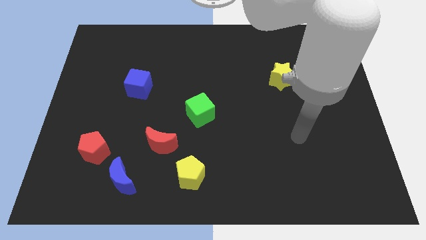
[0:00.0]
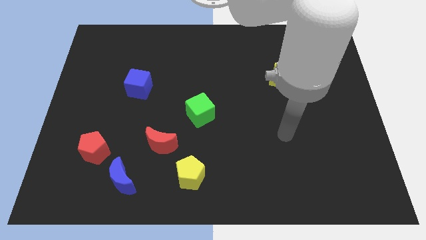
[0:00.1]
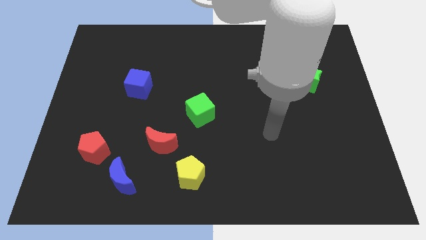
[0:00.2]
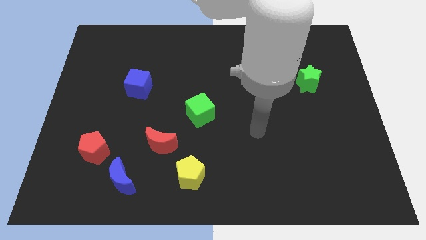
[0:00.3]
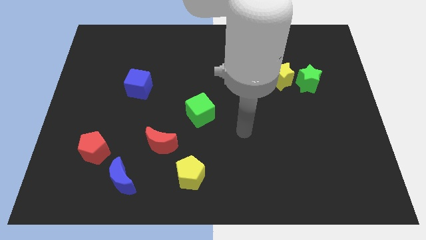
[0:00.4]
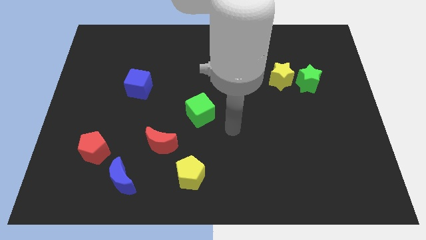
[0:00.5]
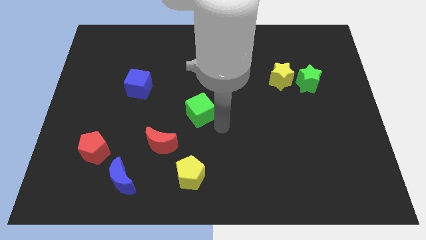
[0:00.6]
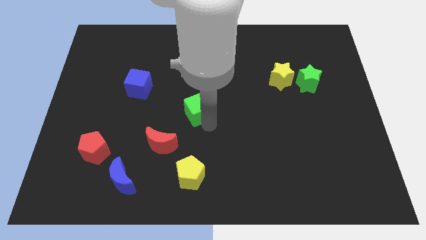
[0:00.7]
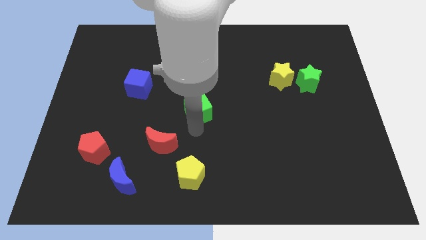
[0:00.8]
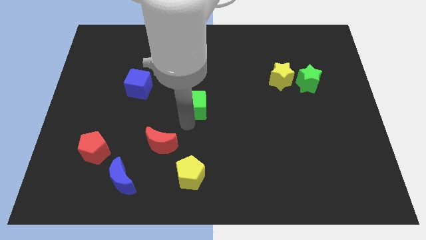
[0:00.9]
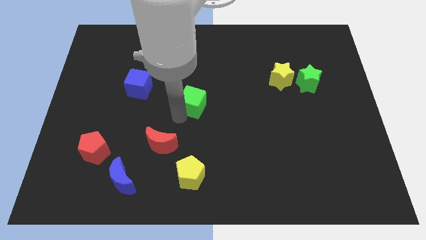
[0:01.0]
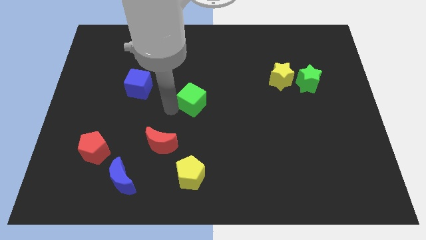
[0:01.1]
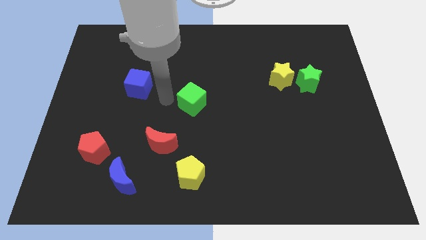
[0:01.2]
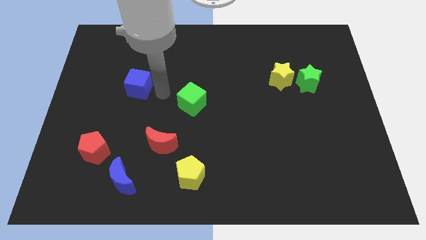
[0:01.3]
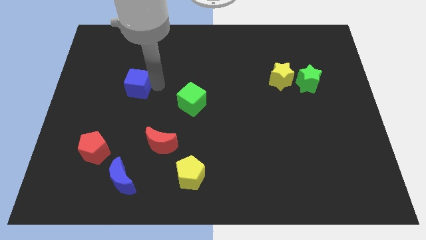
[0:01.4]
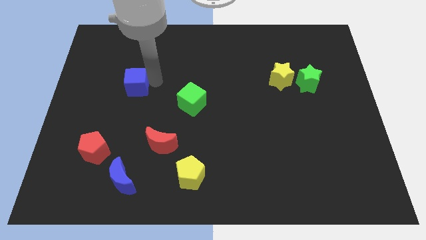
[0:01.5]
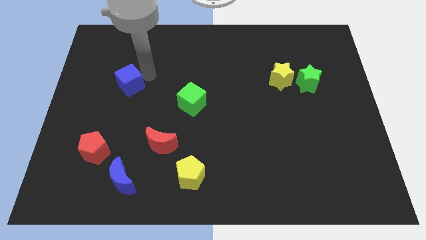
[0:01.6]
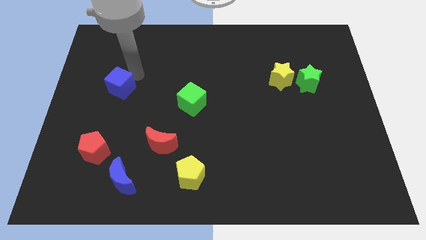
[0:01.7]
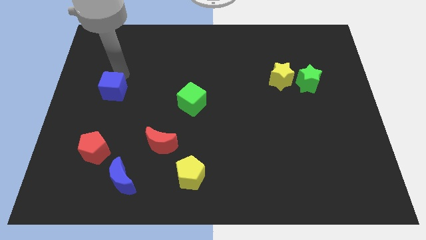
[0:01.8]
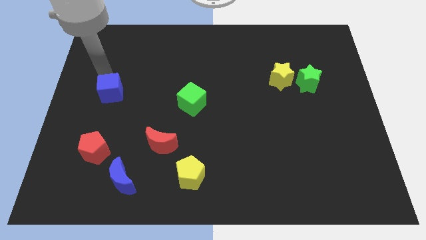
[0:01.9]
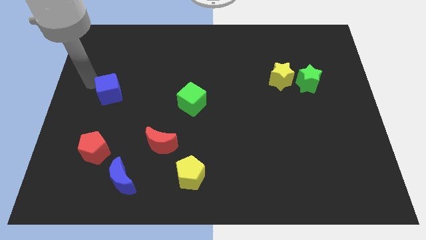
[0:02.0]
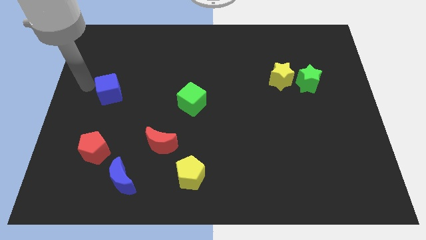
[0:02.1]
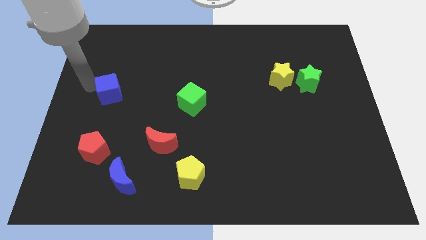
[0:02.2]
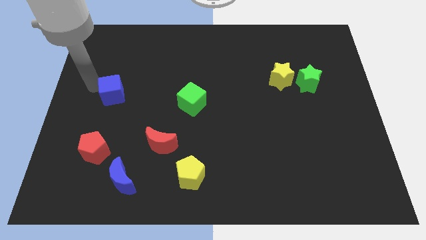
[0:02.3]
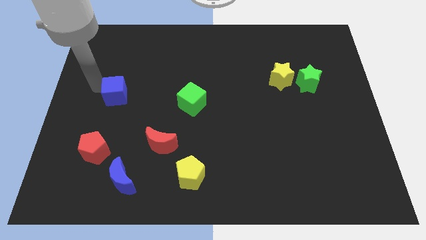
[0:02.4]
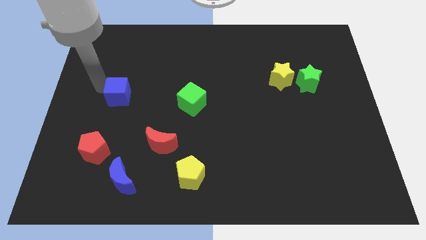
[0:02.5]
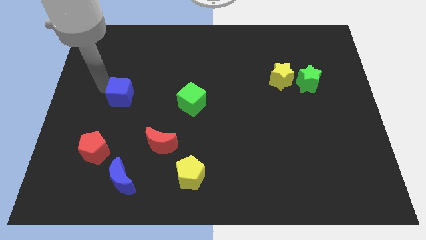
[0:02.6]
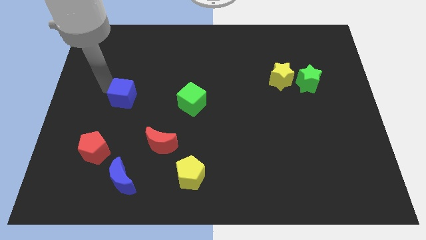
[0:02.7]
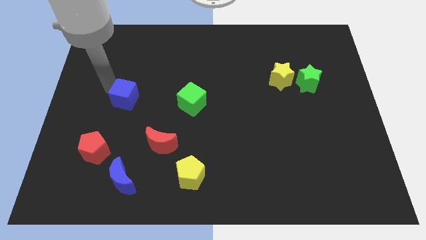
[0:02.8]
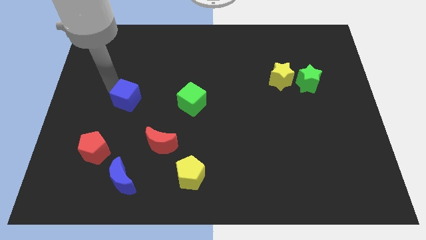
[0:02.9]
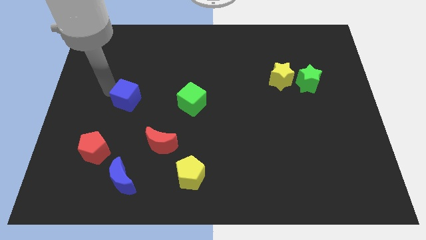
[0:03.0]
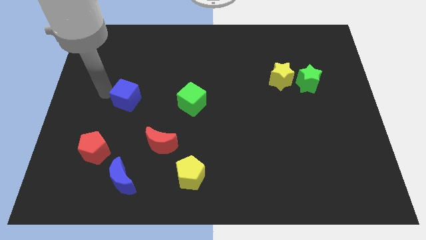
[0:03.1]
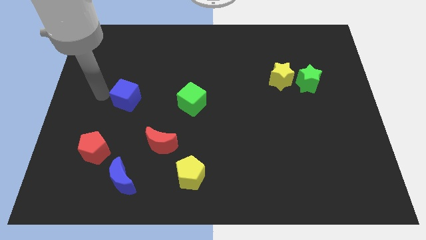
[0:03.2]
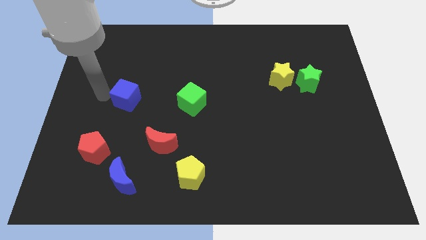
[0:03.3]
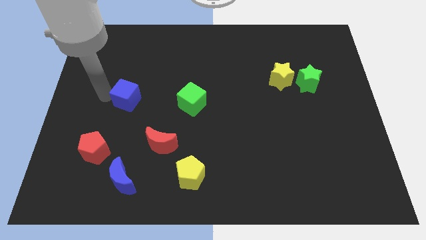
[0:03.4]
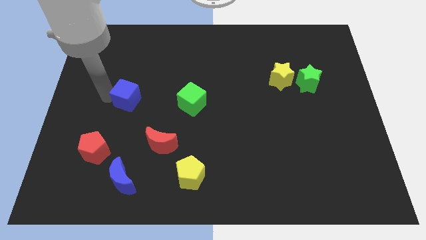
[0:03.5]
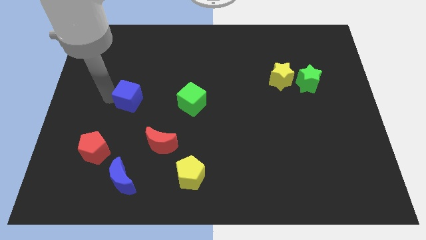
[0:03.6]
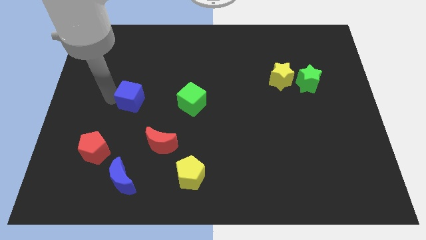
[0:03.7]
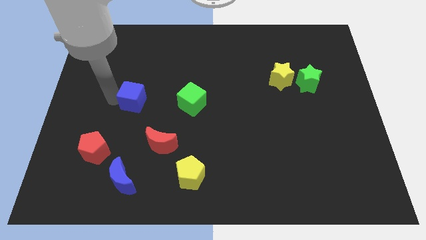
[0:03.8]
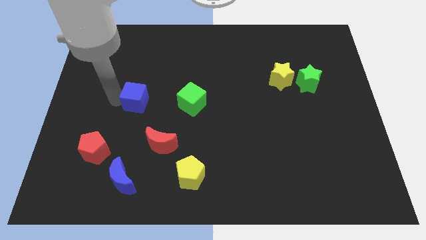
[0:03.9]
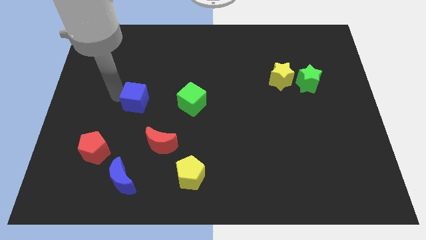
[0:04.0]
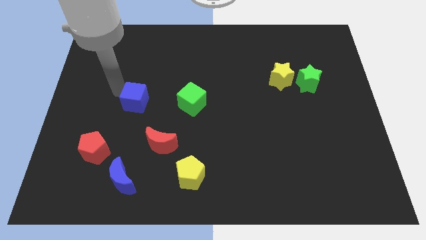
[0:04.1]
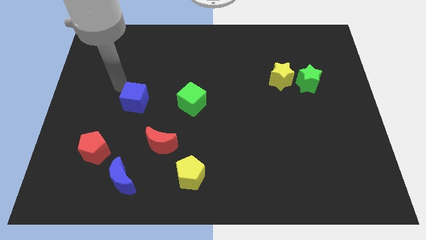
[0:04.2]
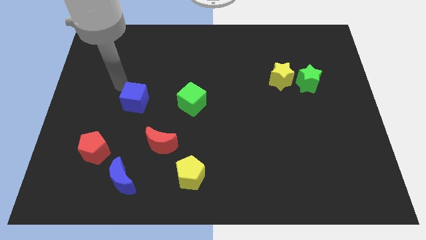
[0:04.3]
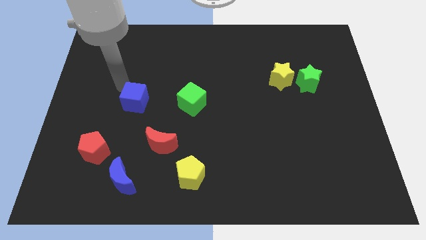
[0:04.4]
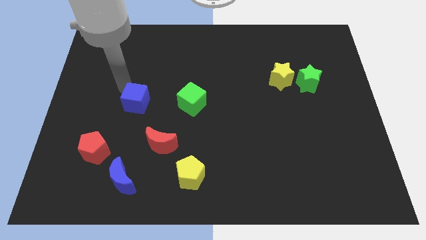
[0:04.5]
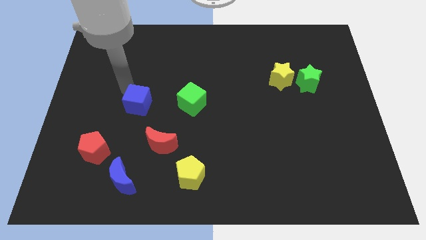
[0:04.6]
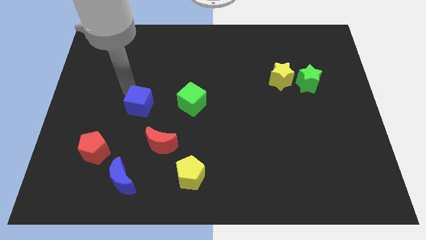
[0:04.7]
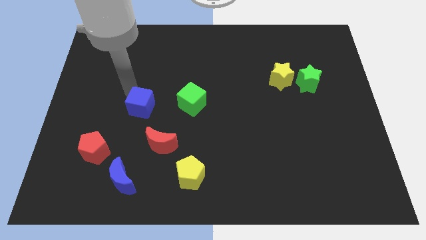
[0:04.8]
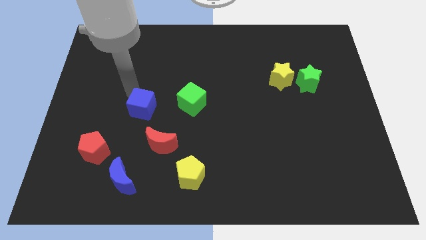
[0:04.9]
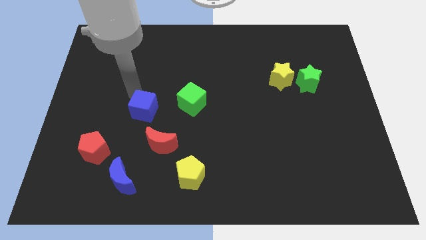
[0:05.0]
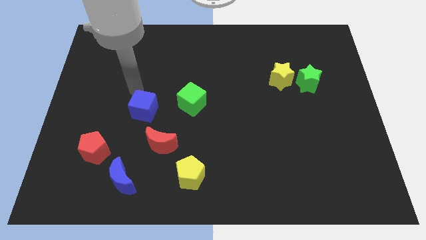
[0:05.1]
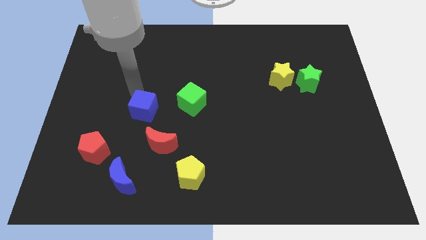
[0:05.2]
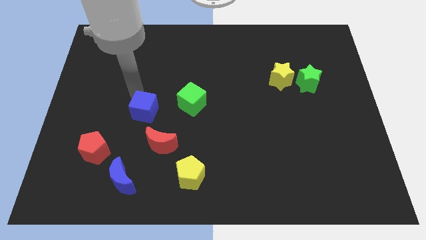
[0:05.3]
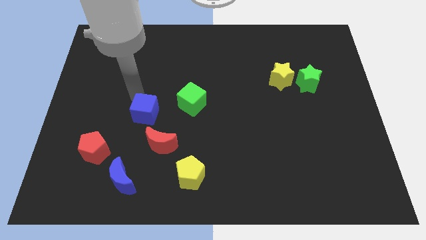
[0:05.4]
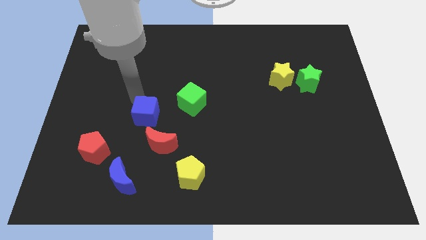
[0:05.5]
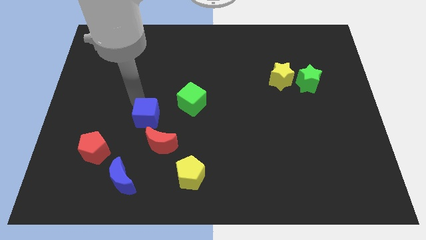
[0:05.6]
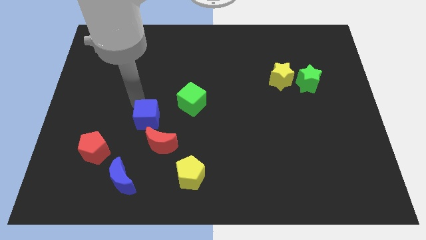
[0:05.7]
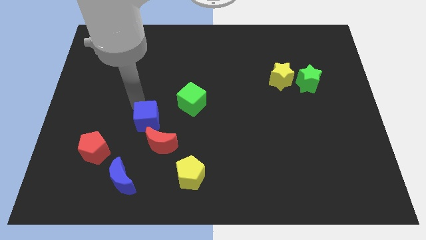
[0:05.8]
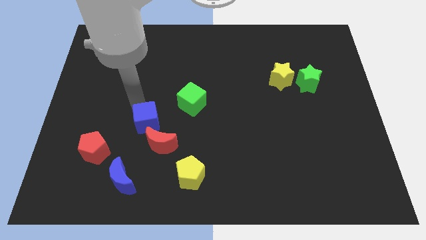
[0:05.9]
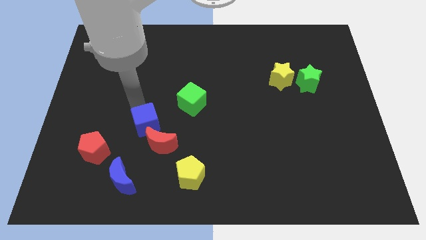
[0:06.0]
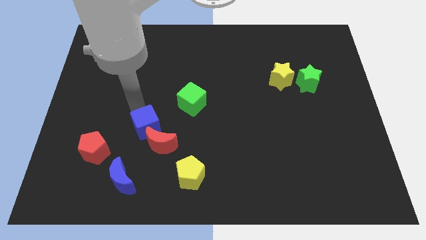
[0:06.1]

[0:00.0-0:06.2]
push the blue cube to the red moon

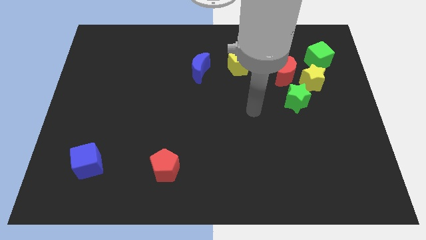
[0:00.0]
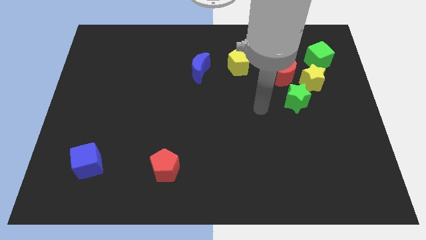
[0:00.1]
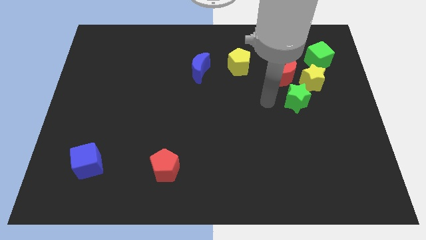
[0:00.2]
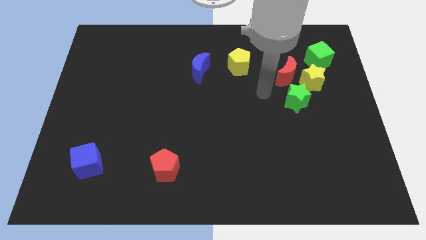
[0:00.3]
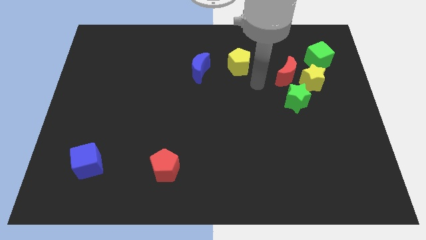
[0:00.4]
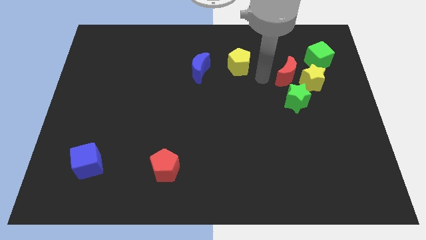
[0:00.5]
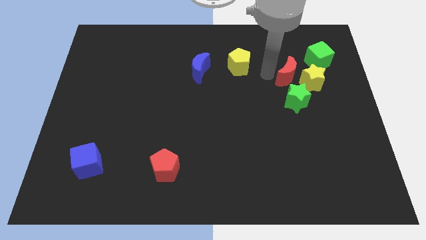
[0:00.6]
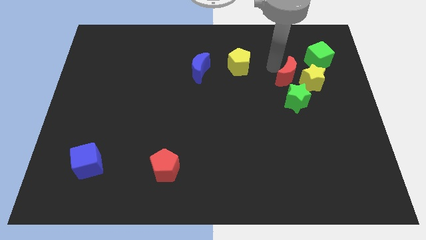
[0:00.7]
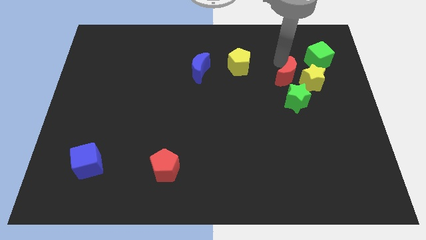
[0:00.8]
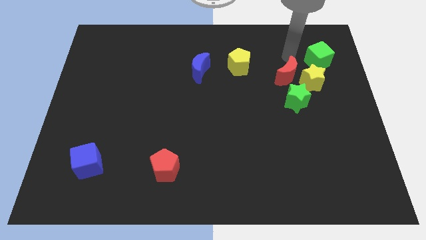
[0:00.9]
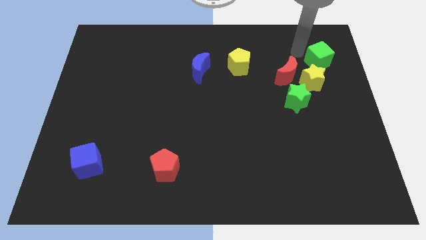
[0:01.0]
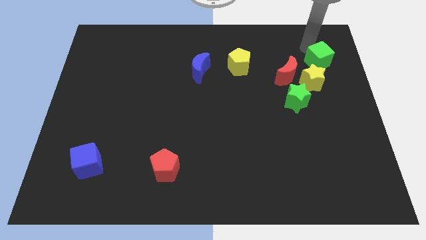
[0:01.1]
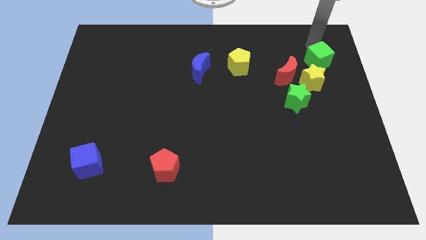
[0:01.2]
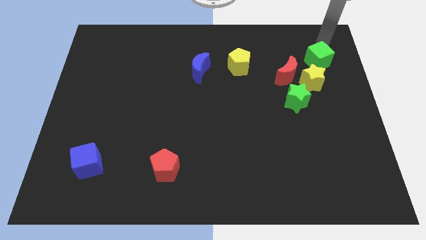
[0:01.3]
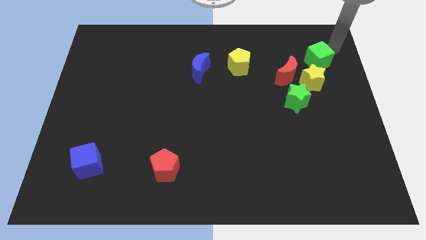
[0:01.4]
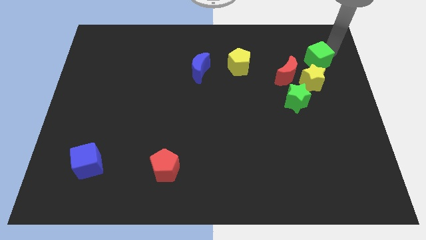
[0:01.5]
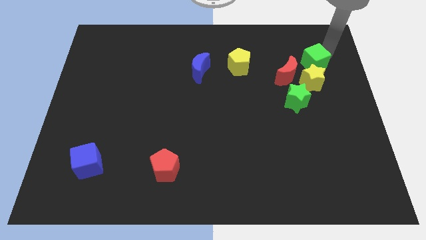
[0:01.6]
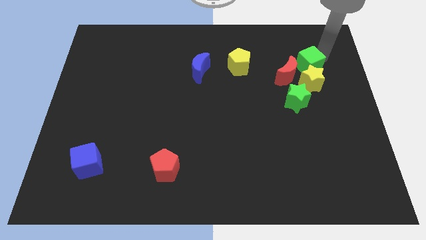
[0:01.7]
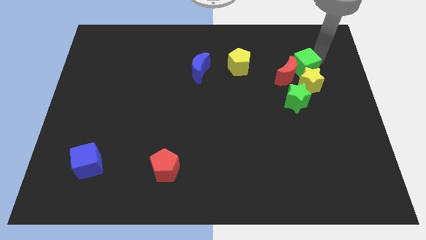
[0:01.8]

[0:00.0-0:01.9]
push the green cube towards the red moon
